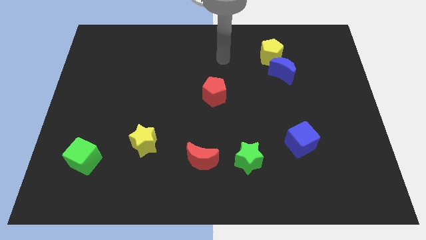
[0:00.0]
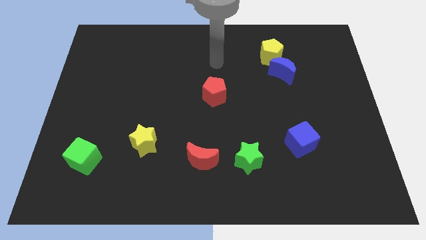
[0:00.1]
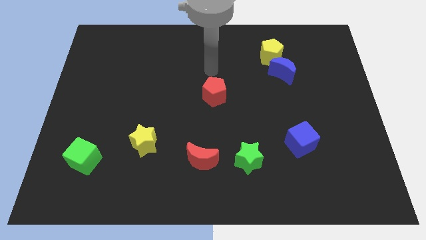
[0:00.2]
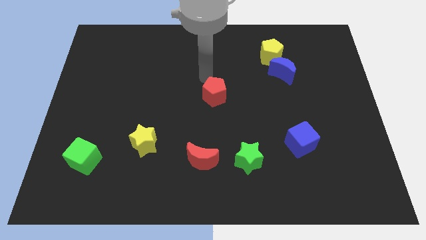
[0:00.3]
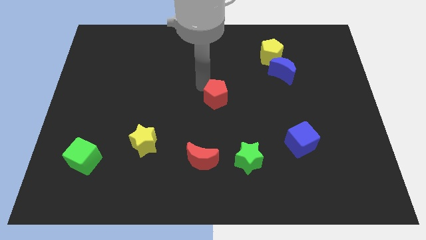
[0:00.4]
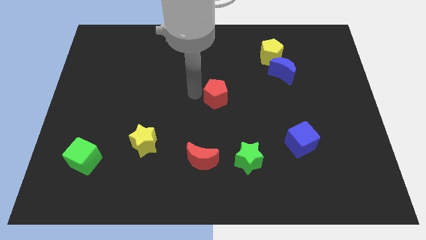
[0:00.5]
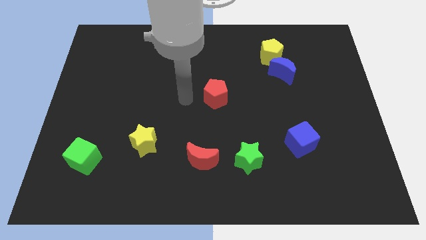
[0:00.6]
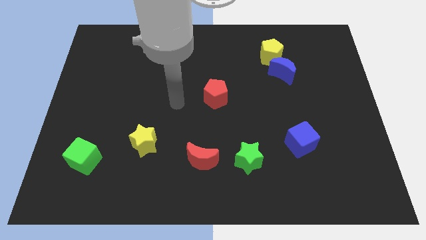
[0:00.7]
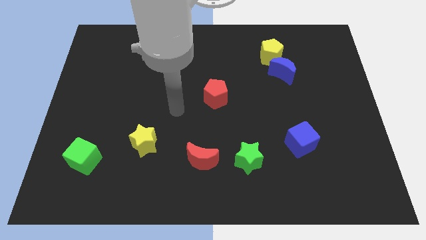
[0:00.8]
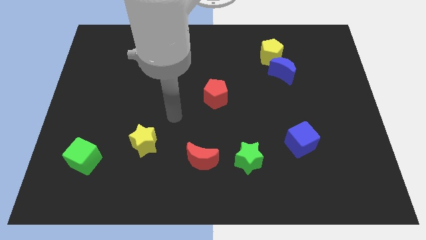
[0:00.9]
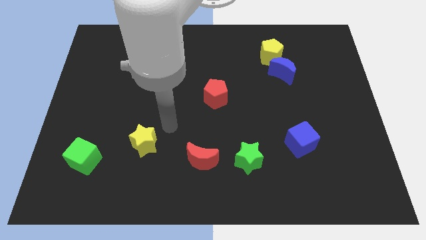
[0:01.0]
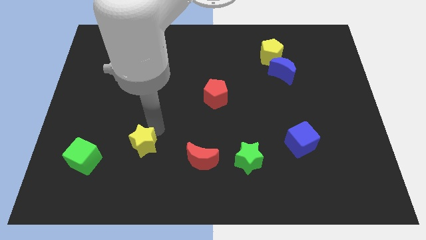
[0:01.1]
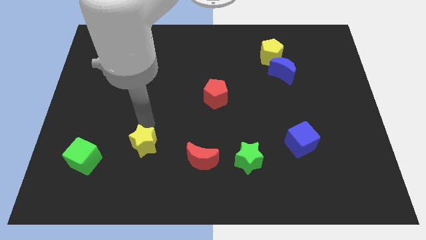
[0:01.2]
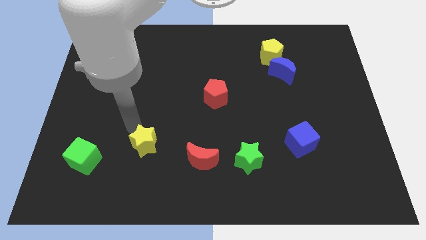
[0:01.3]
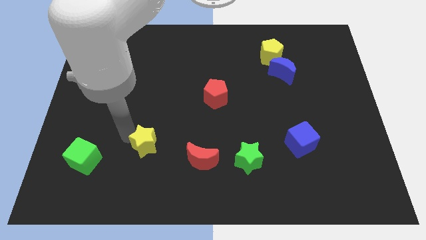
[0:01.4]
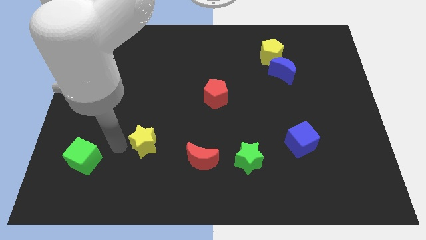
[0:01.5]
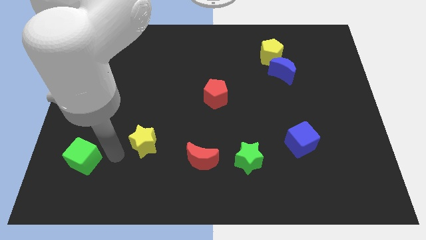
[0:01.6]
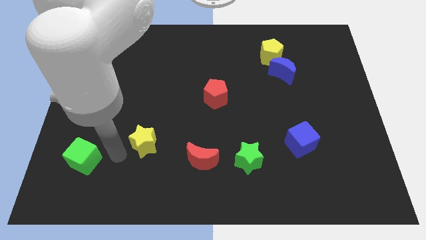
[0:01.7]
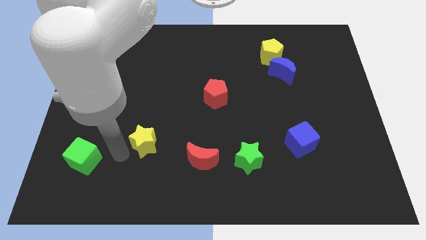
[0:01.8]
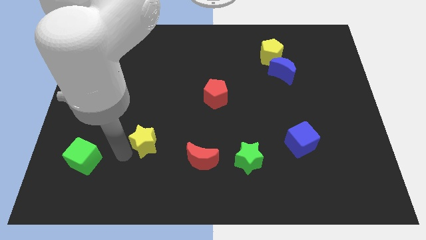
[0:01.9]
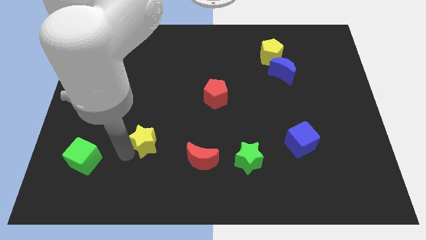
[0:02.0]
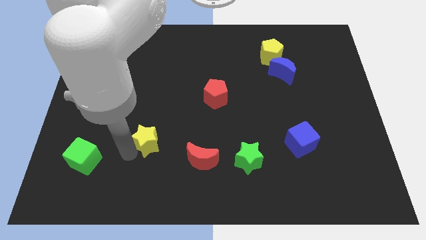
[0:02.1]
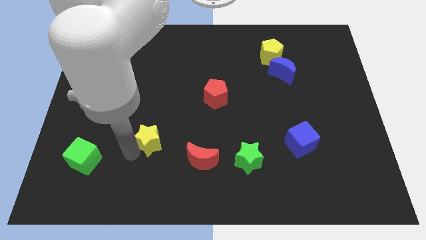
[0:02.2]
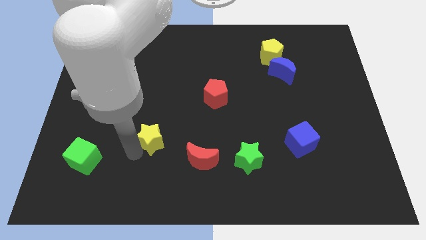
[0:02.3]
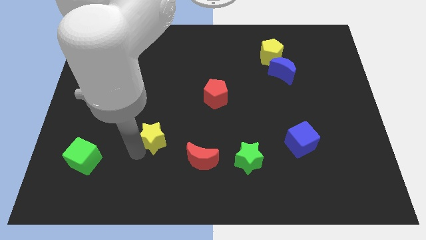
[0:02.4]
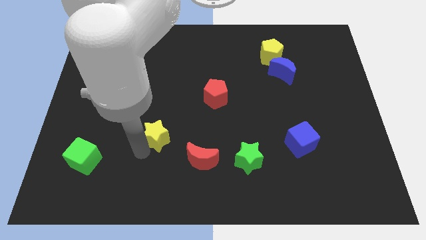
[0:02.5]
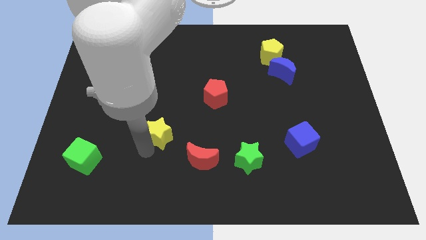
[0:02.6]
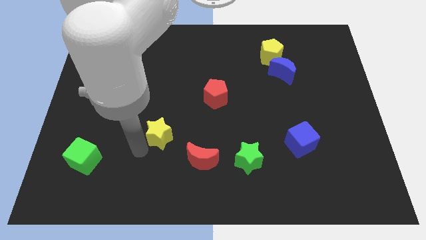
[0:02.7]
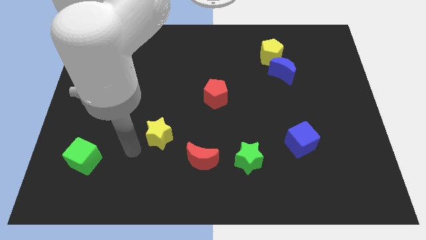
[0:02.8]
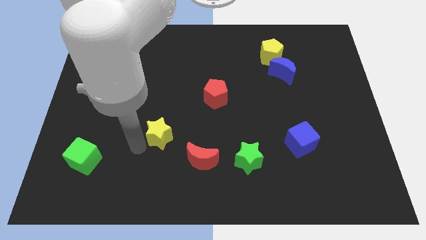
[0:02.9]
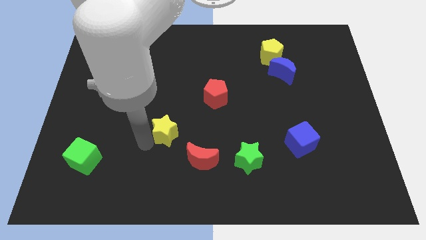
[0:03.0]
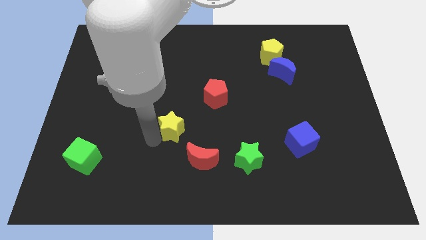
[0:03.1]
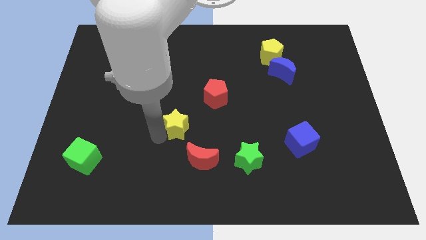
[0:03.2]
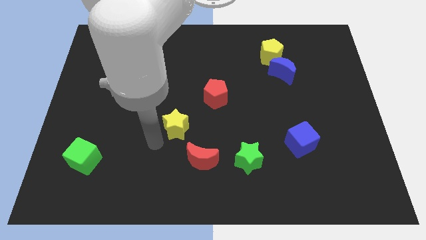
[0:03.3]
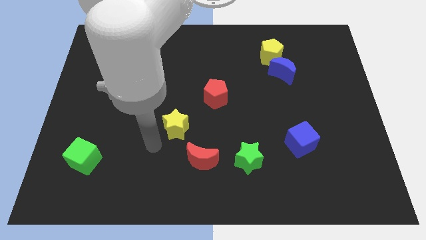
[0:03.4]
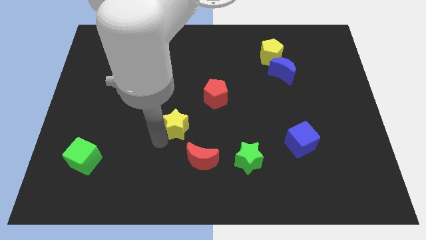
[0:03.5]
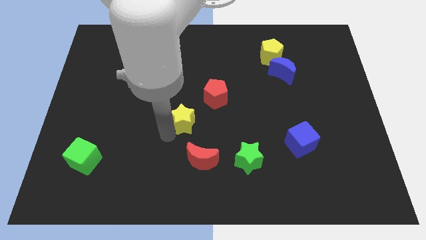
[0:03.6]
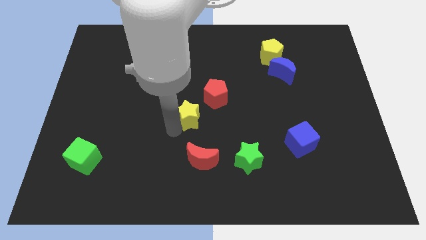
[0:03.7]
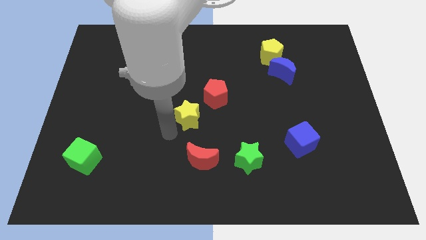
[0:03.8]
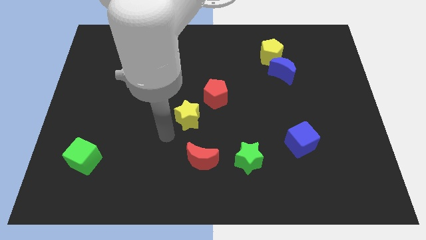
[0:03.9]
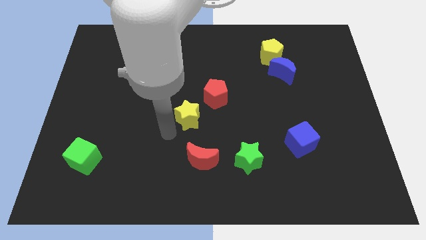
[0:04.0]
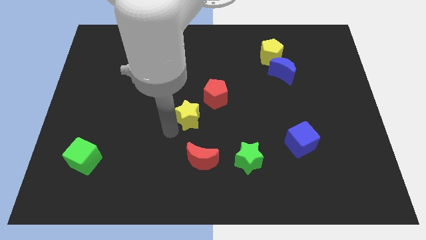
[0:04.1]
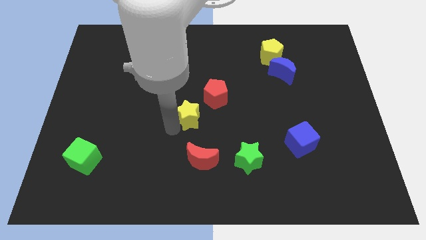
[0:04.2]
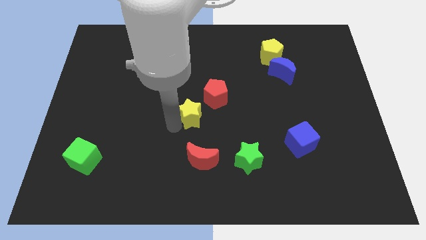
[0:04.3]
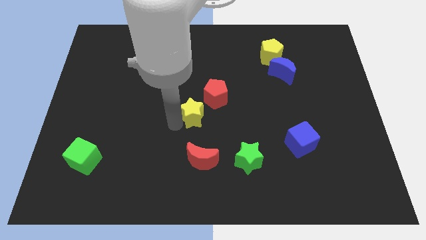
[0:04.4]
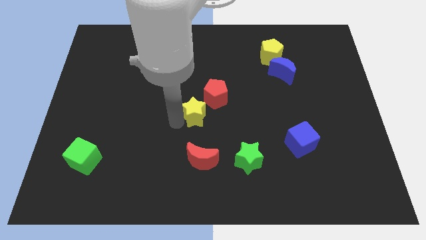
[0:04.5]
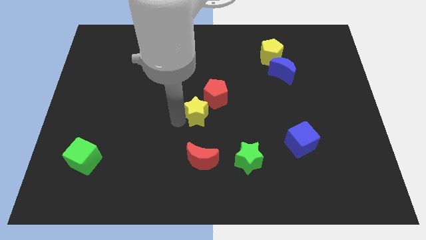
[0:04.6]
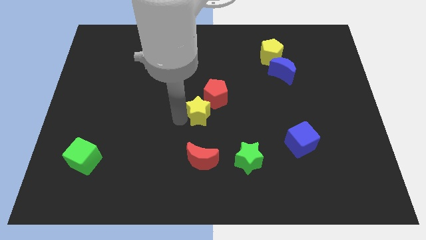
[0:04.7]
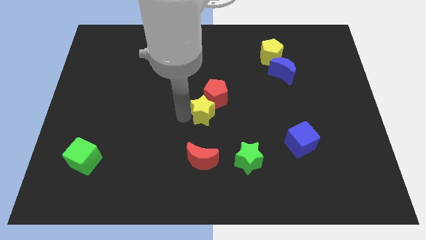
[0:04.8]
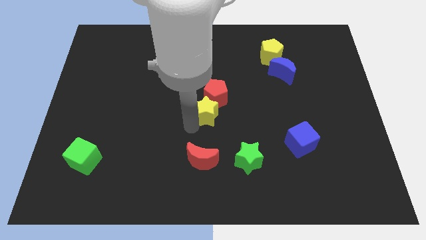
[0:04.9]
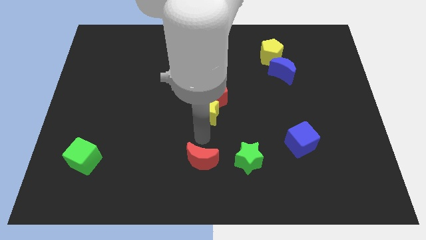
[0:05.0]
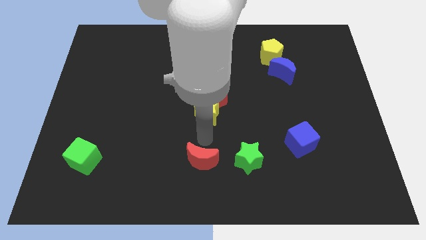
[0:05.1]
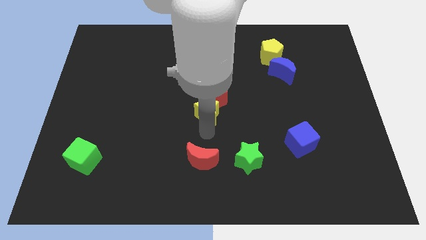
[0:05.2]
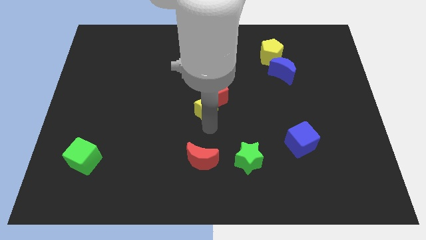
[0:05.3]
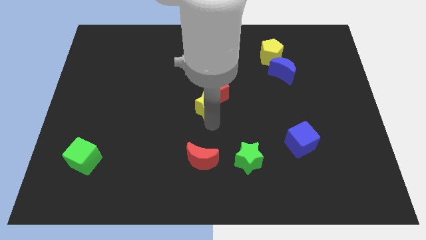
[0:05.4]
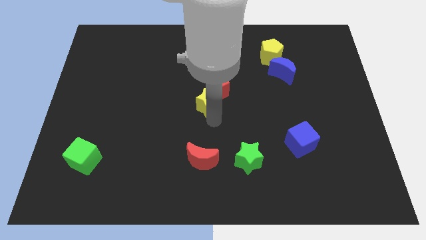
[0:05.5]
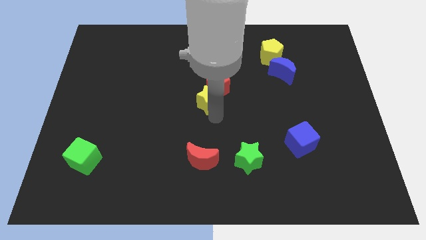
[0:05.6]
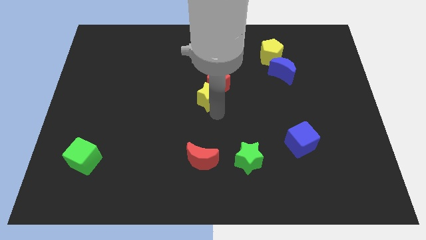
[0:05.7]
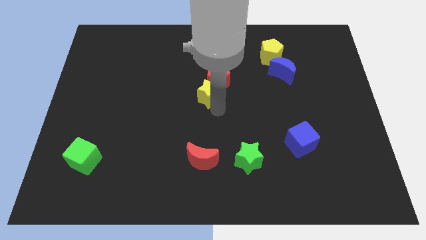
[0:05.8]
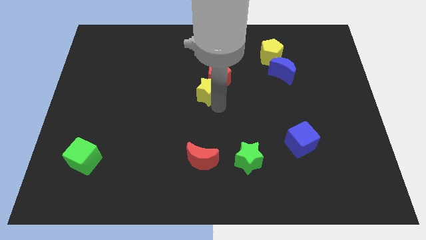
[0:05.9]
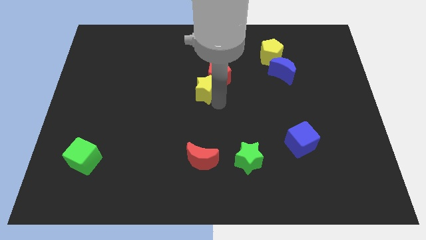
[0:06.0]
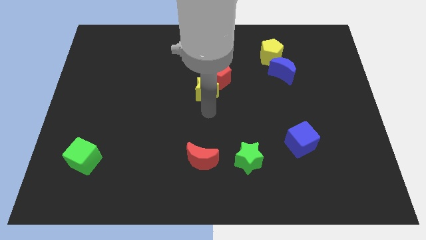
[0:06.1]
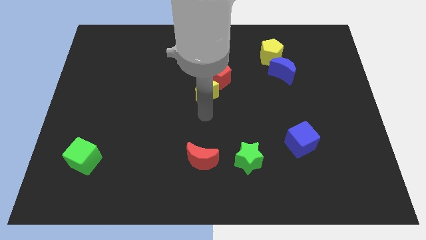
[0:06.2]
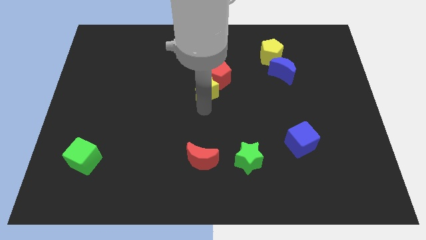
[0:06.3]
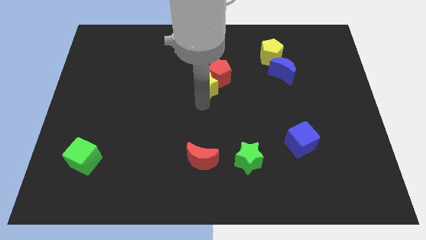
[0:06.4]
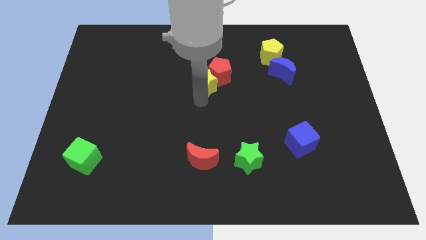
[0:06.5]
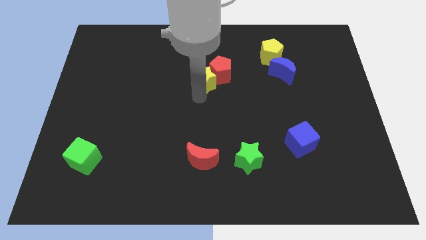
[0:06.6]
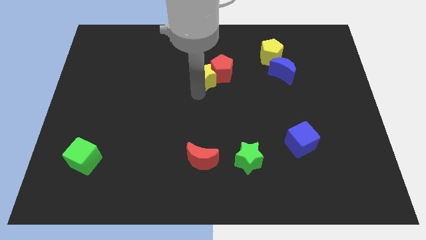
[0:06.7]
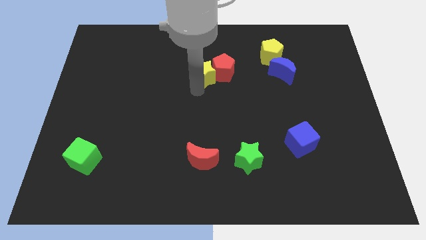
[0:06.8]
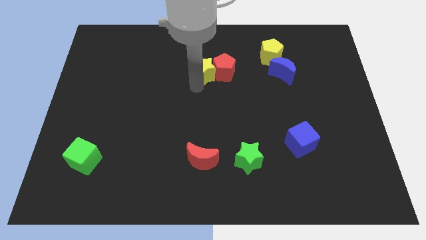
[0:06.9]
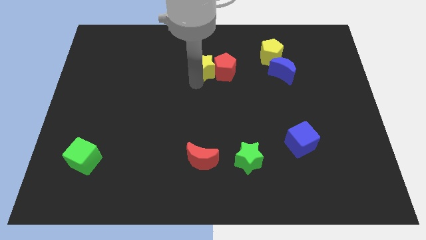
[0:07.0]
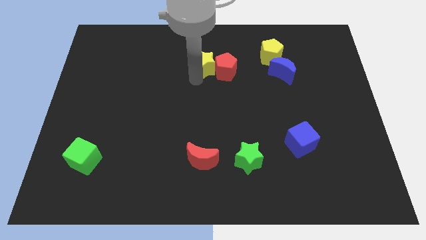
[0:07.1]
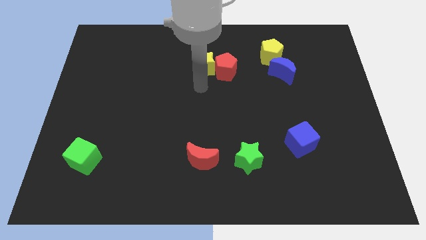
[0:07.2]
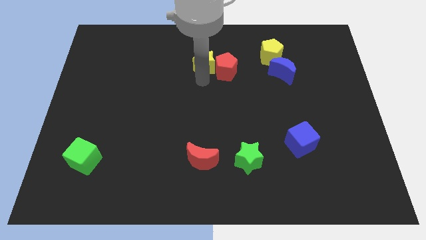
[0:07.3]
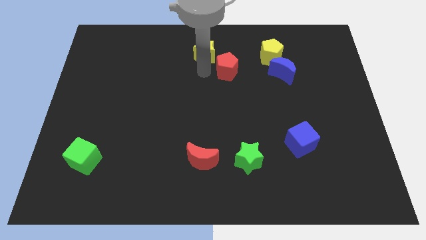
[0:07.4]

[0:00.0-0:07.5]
move the yellow star to the towards your base
